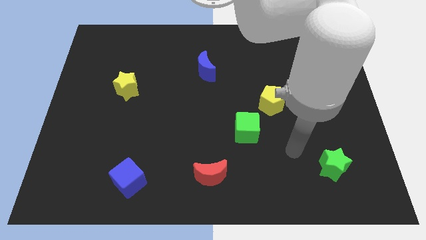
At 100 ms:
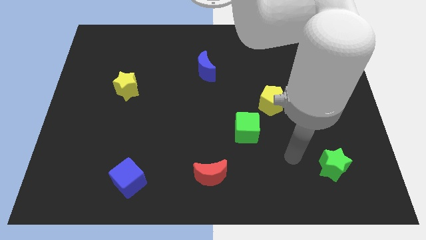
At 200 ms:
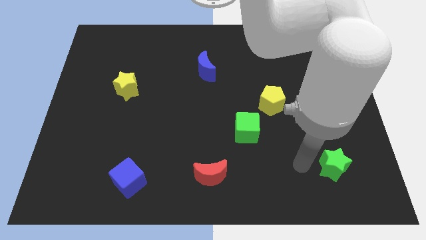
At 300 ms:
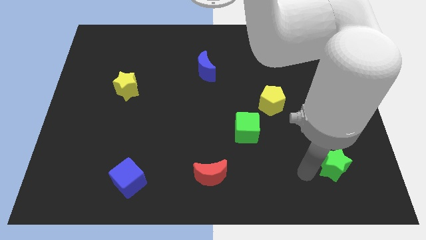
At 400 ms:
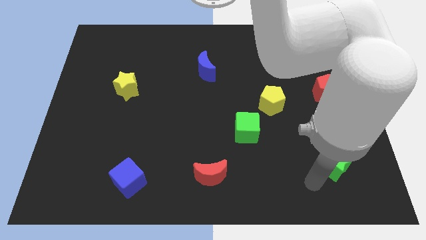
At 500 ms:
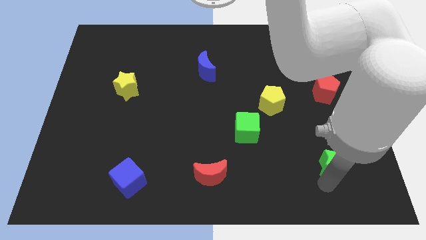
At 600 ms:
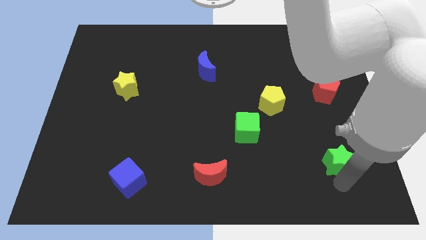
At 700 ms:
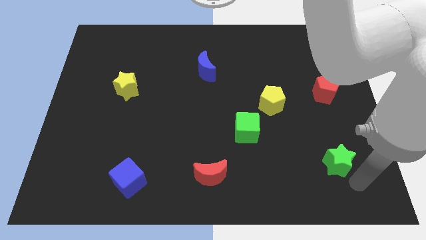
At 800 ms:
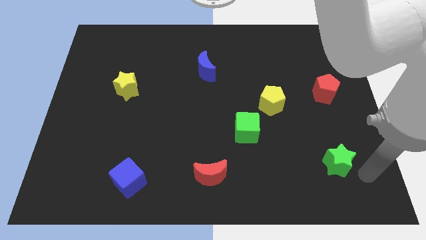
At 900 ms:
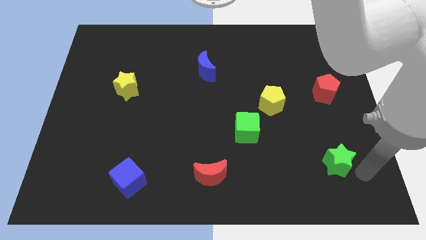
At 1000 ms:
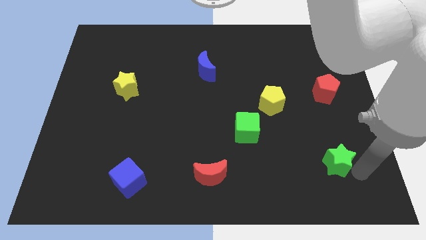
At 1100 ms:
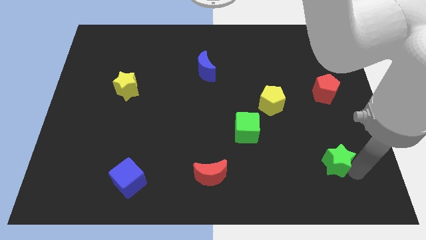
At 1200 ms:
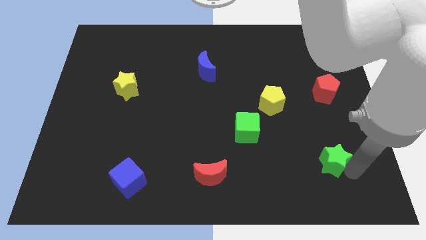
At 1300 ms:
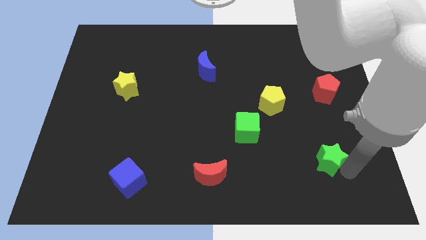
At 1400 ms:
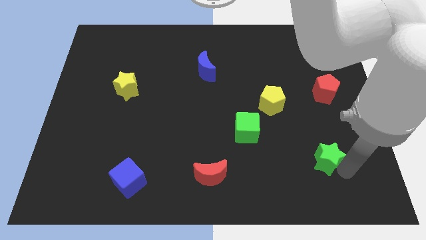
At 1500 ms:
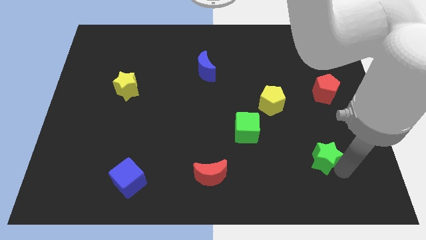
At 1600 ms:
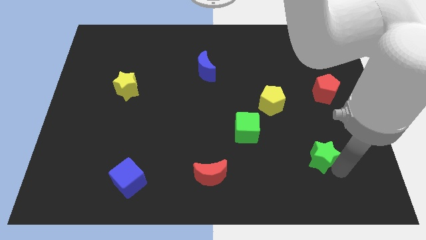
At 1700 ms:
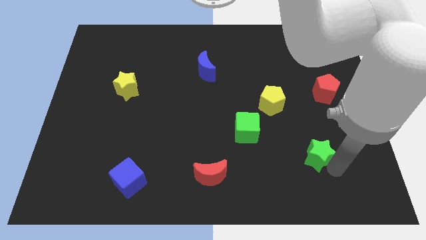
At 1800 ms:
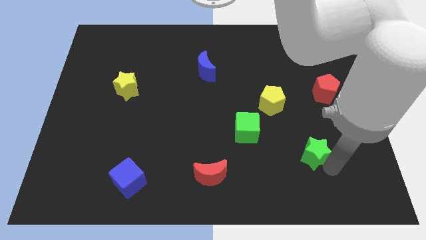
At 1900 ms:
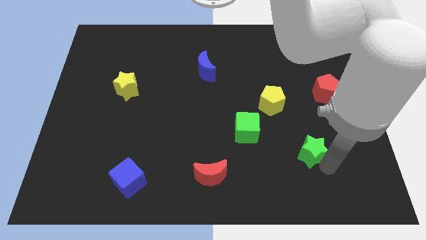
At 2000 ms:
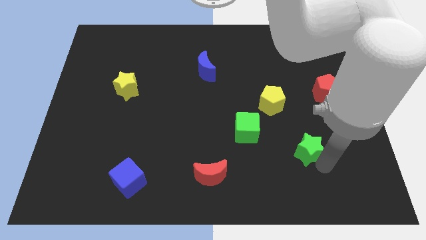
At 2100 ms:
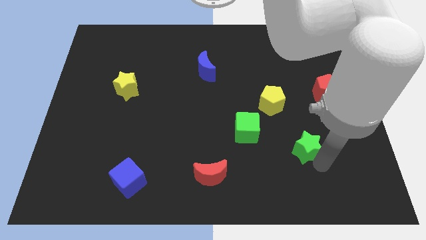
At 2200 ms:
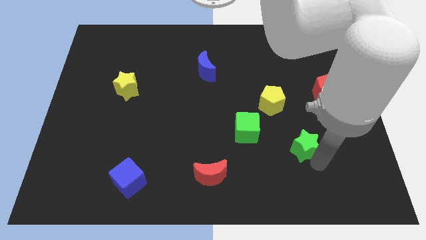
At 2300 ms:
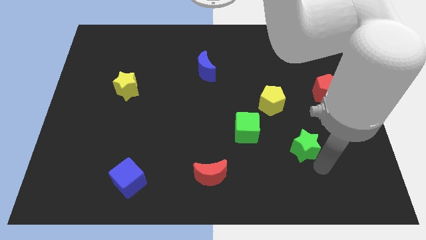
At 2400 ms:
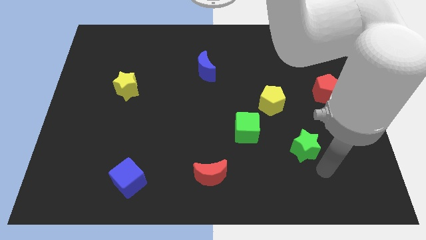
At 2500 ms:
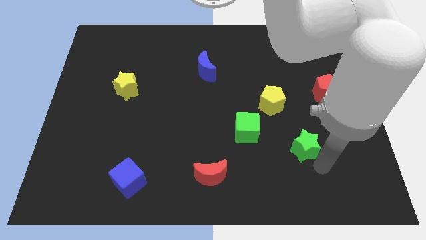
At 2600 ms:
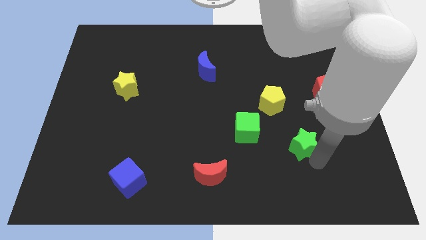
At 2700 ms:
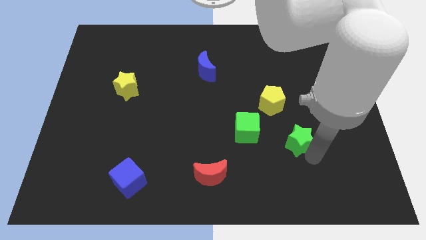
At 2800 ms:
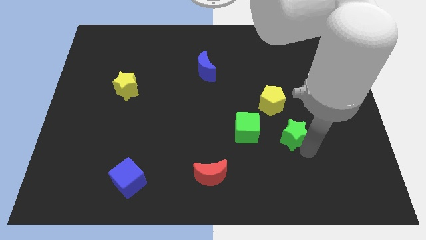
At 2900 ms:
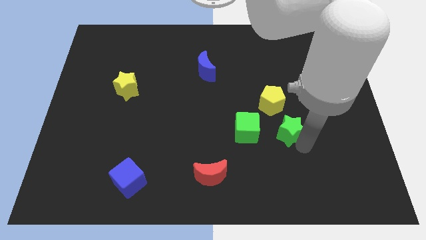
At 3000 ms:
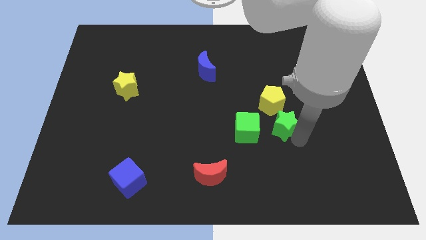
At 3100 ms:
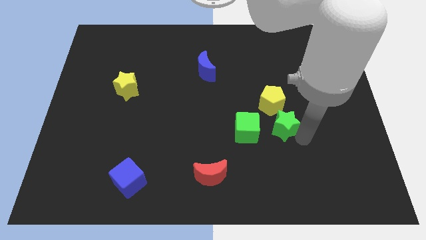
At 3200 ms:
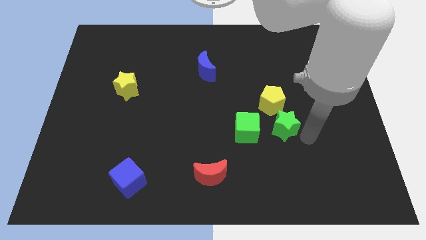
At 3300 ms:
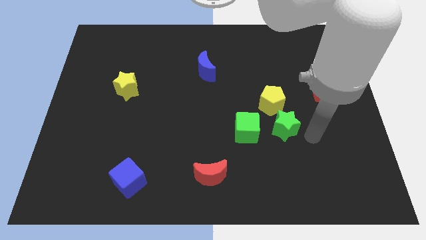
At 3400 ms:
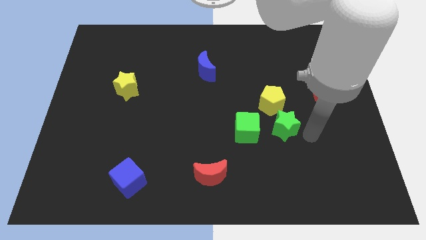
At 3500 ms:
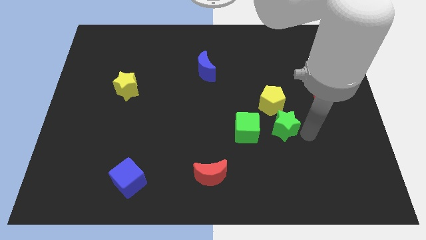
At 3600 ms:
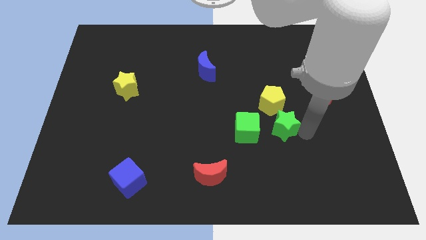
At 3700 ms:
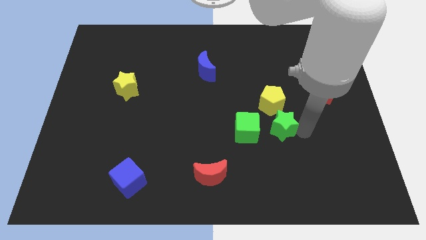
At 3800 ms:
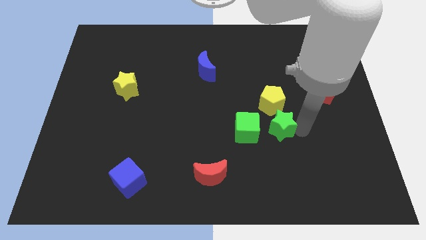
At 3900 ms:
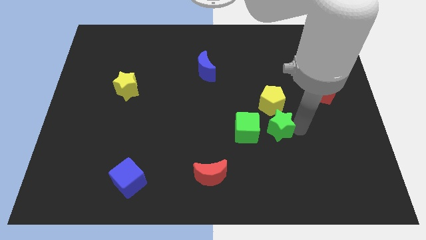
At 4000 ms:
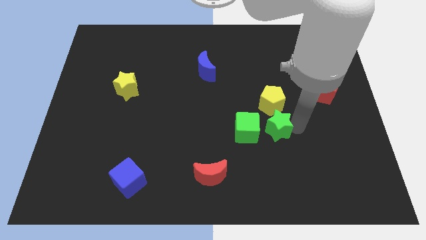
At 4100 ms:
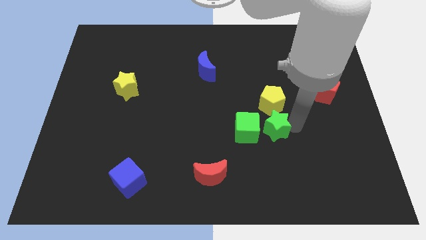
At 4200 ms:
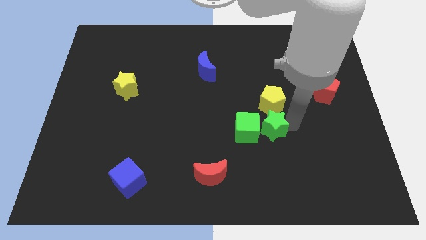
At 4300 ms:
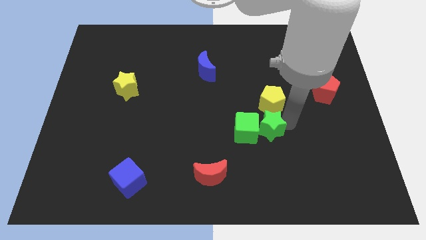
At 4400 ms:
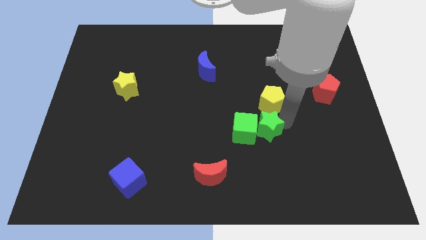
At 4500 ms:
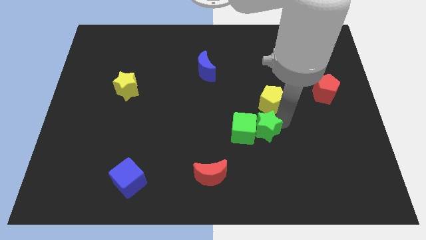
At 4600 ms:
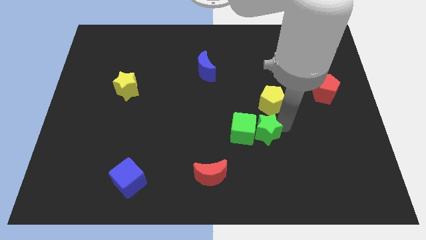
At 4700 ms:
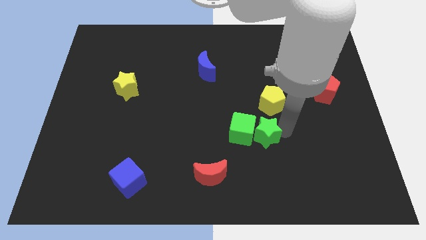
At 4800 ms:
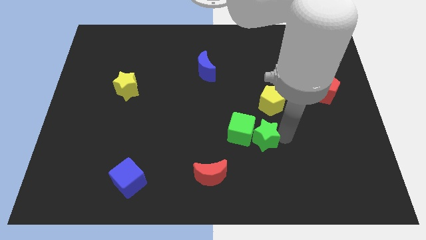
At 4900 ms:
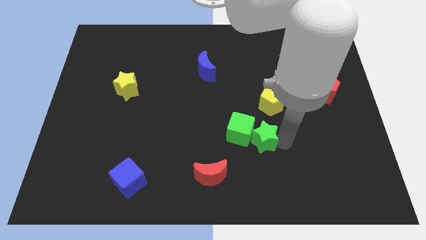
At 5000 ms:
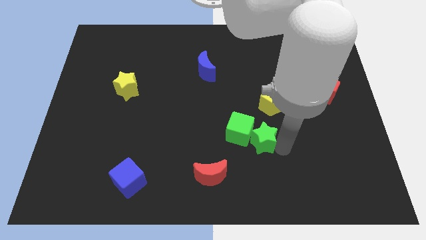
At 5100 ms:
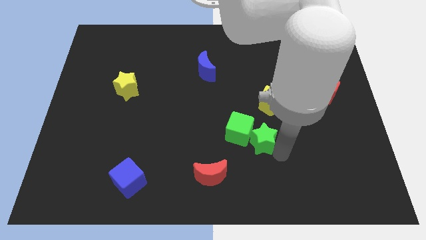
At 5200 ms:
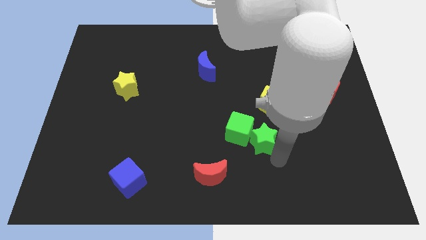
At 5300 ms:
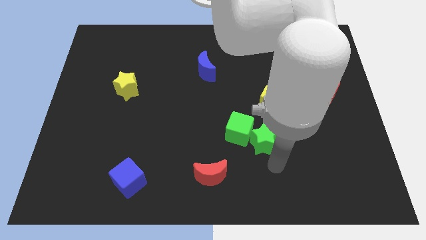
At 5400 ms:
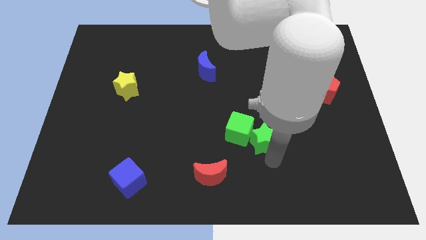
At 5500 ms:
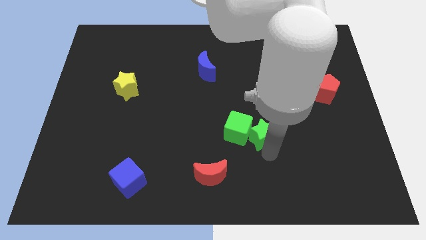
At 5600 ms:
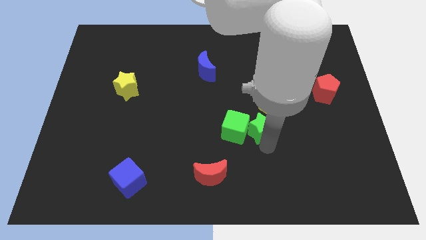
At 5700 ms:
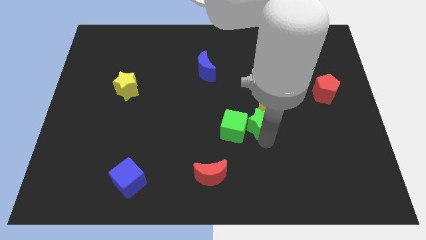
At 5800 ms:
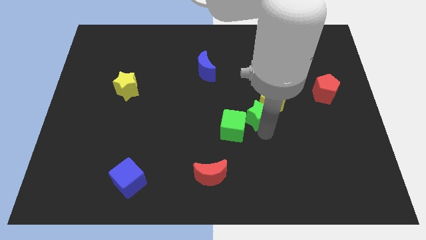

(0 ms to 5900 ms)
move the green star to the middle of the board

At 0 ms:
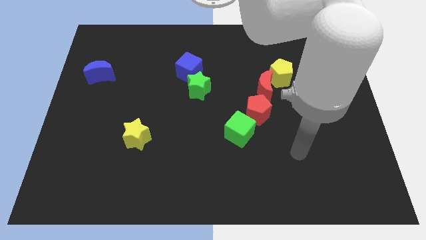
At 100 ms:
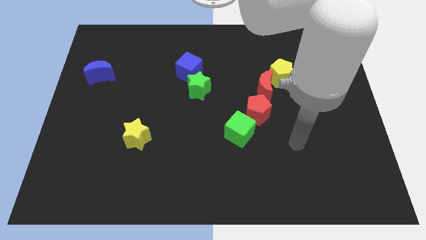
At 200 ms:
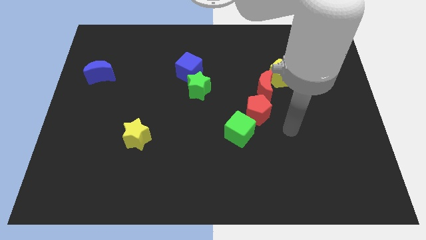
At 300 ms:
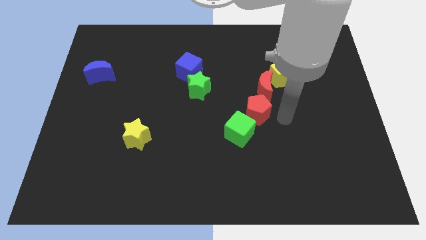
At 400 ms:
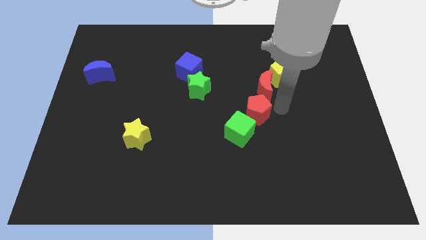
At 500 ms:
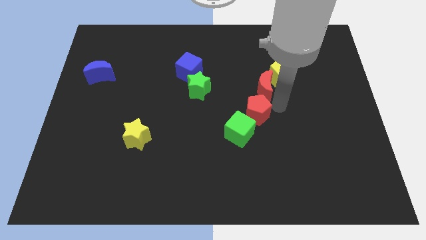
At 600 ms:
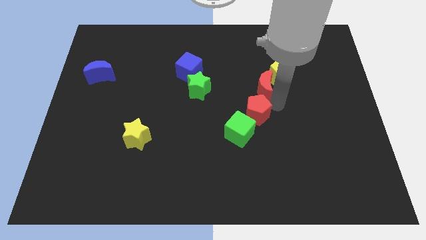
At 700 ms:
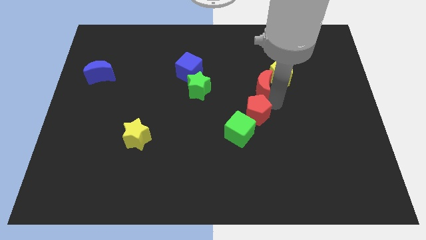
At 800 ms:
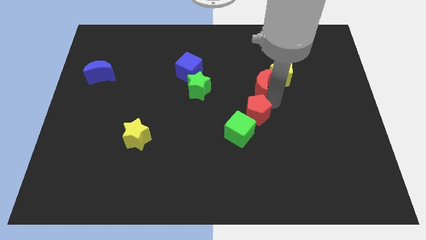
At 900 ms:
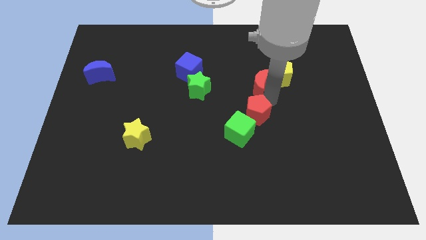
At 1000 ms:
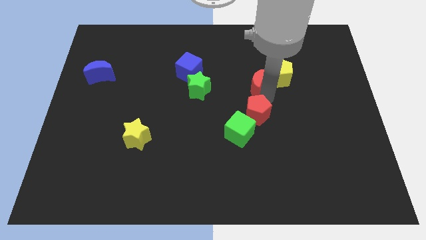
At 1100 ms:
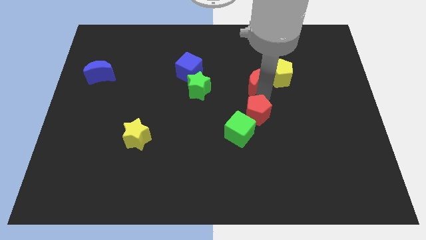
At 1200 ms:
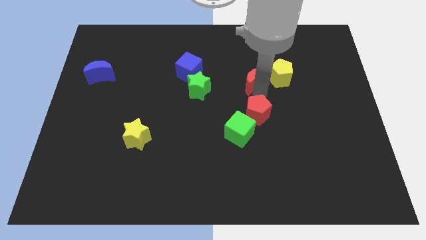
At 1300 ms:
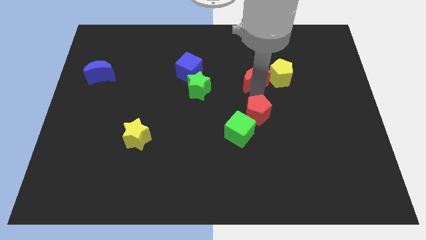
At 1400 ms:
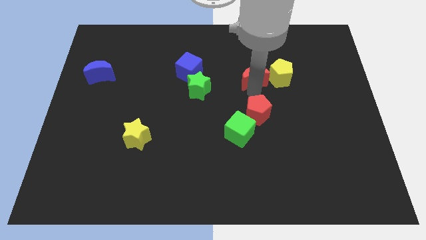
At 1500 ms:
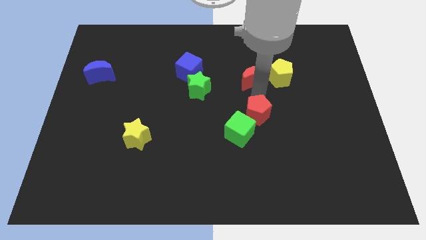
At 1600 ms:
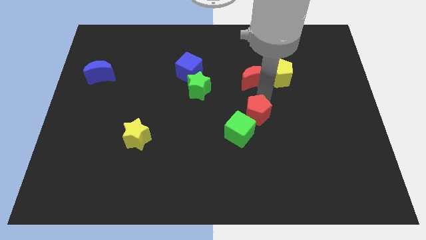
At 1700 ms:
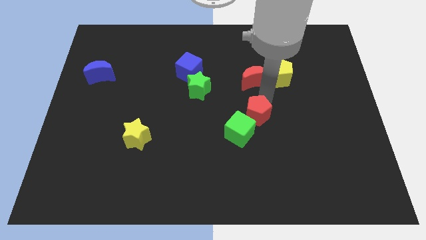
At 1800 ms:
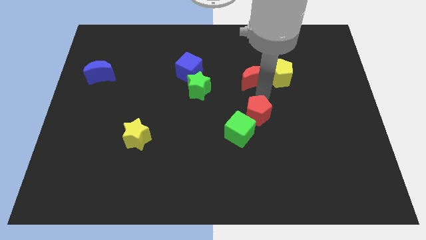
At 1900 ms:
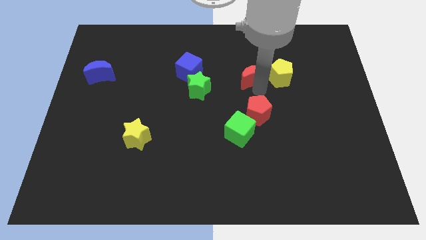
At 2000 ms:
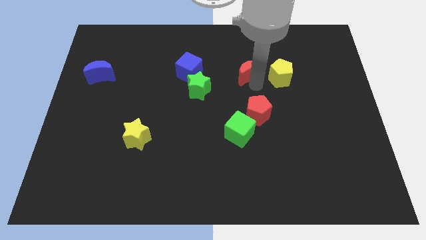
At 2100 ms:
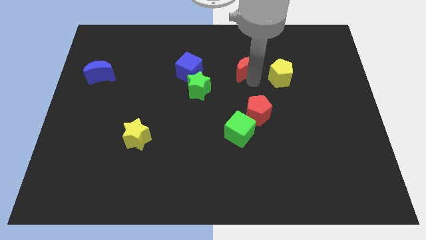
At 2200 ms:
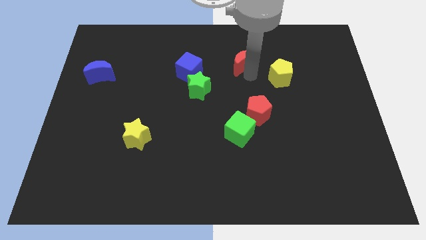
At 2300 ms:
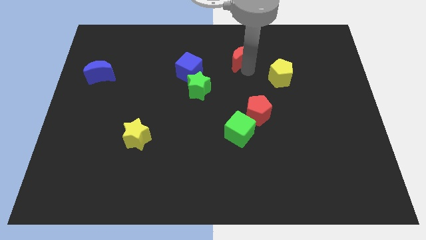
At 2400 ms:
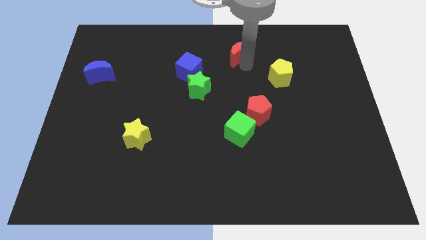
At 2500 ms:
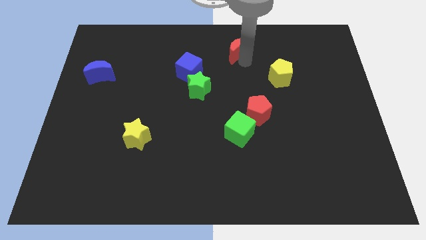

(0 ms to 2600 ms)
move the red moon to the top
